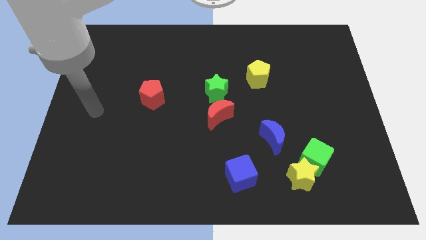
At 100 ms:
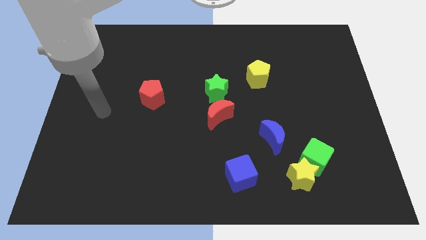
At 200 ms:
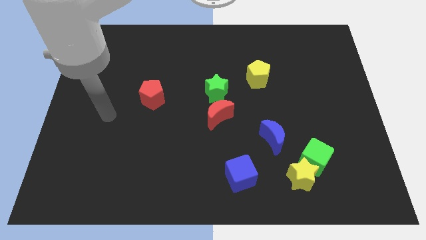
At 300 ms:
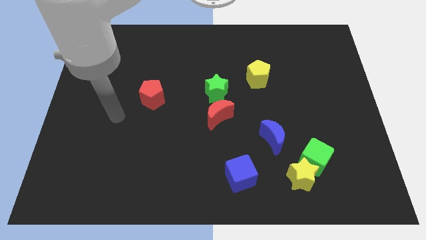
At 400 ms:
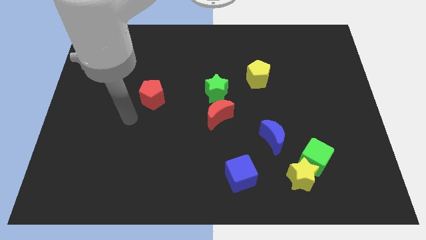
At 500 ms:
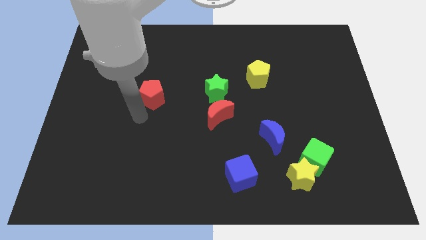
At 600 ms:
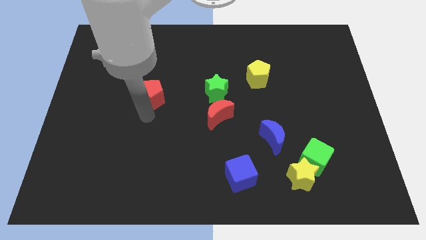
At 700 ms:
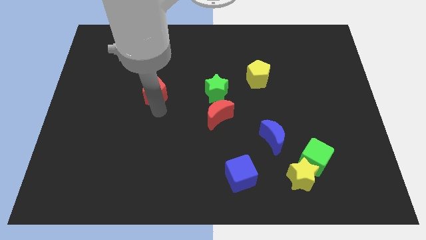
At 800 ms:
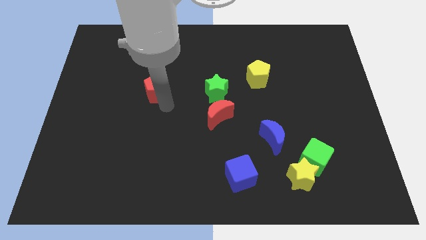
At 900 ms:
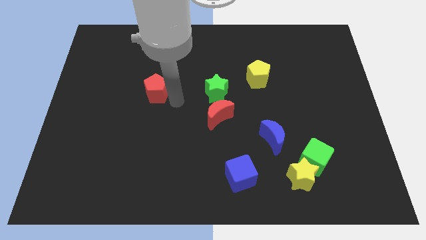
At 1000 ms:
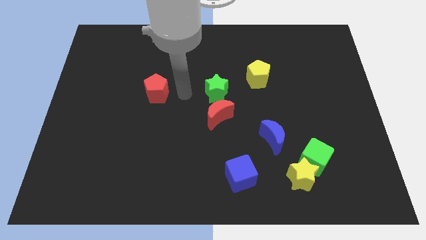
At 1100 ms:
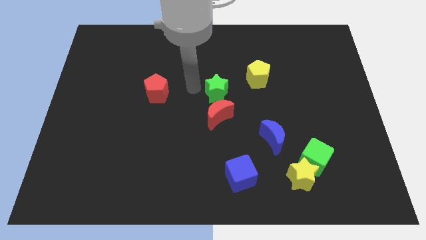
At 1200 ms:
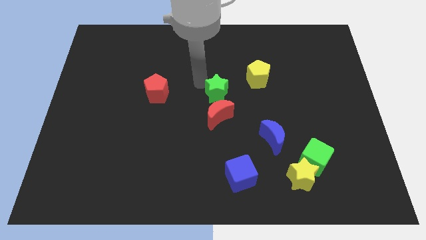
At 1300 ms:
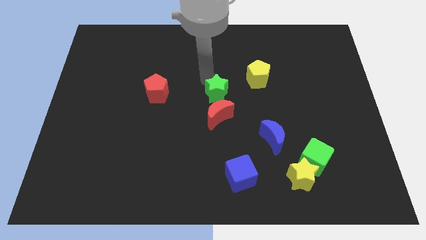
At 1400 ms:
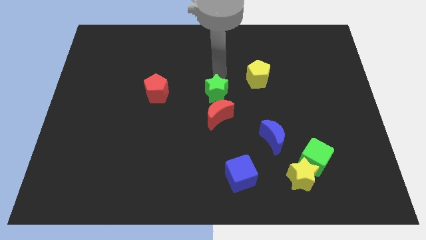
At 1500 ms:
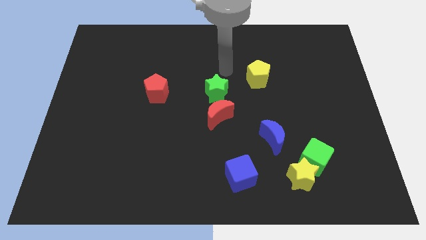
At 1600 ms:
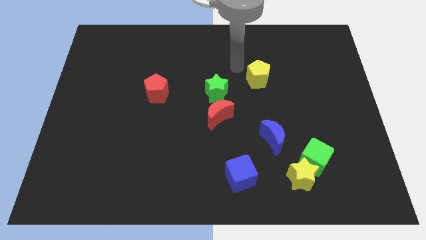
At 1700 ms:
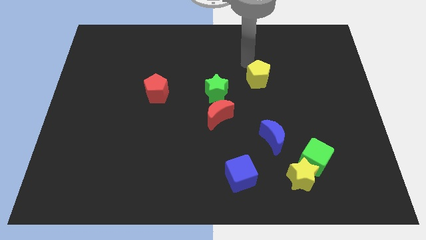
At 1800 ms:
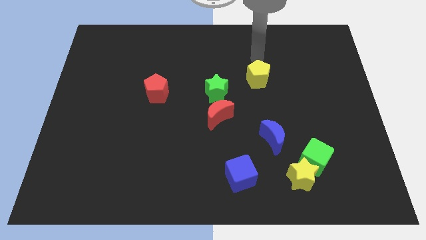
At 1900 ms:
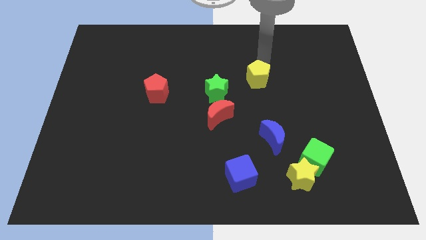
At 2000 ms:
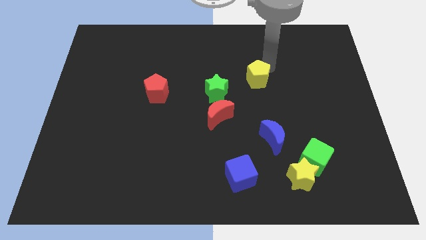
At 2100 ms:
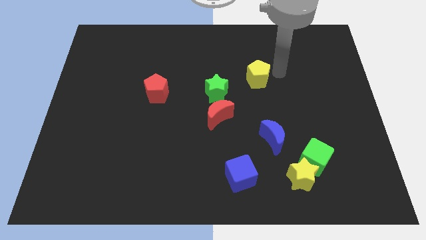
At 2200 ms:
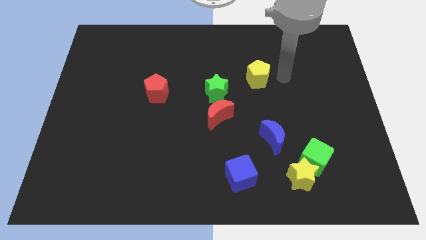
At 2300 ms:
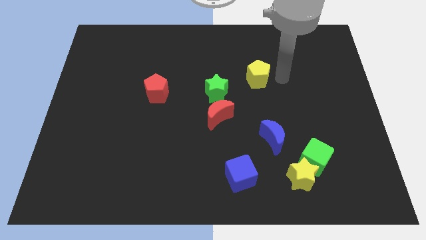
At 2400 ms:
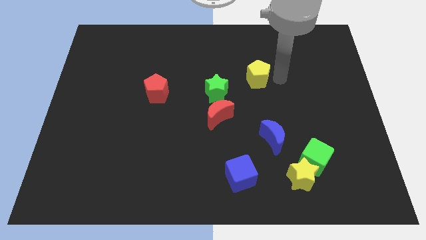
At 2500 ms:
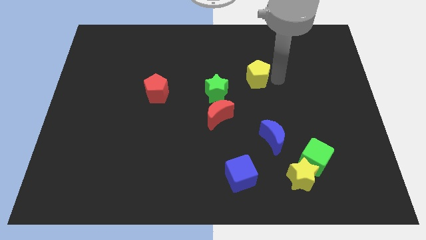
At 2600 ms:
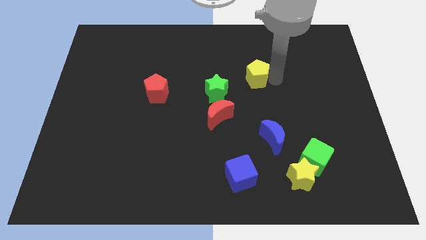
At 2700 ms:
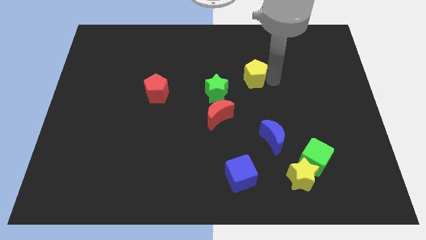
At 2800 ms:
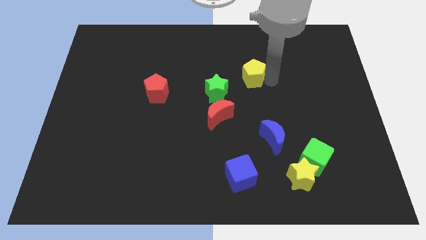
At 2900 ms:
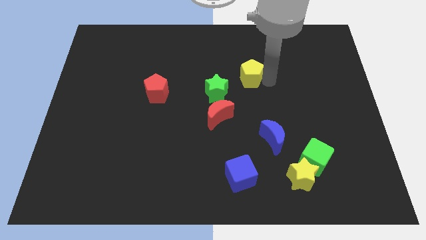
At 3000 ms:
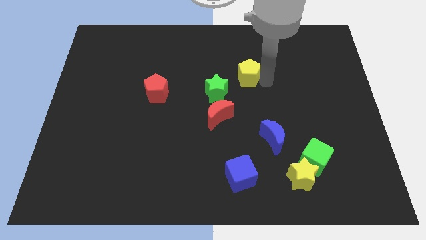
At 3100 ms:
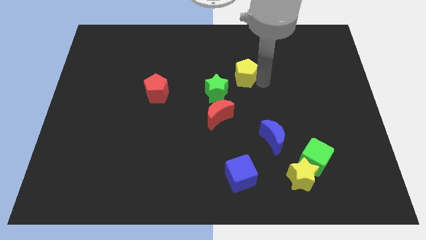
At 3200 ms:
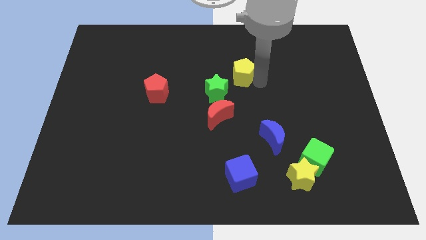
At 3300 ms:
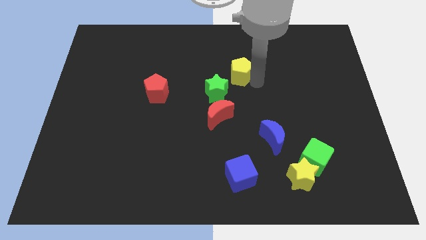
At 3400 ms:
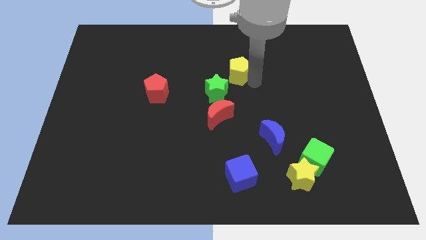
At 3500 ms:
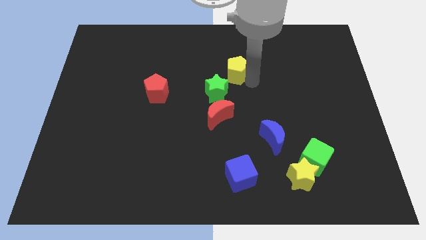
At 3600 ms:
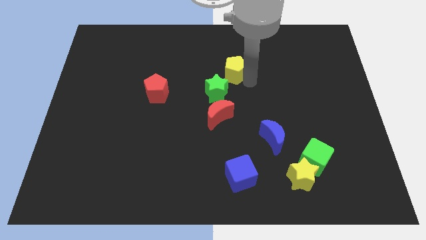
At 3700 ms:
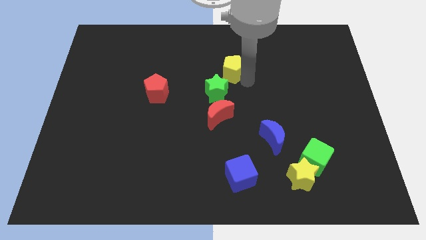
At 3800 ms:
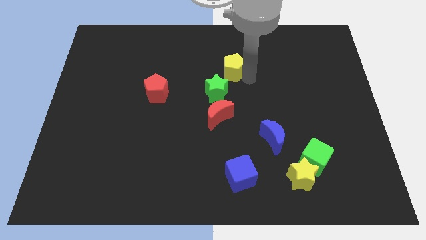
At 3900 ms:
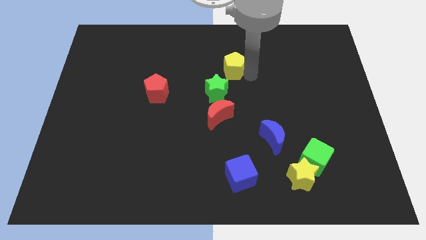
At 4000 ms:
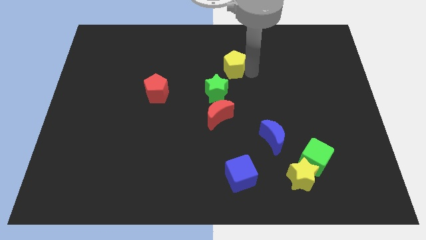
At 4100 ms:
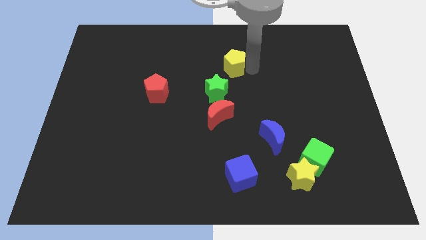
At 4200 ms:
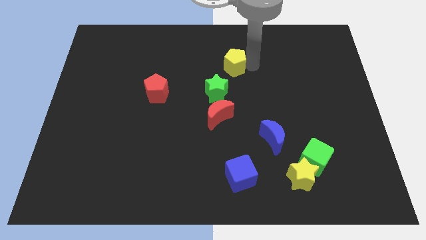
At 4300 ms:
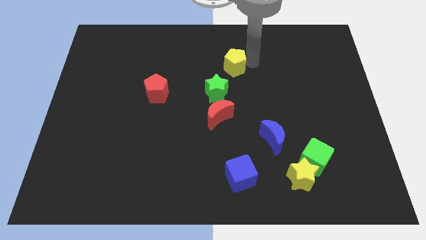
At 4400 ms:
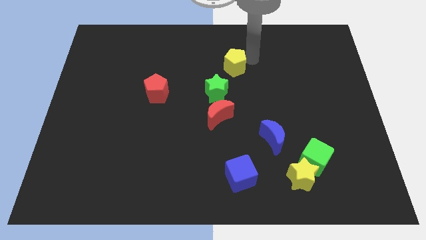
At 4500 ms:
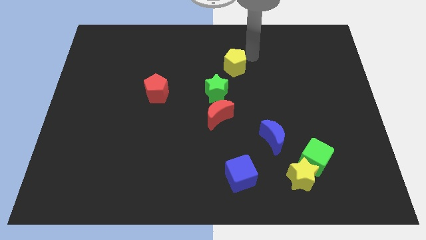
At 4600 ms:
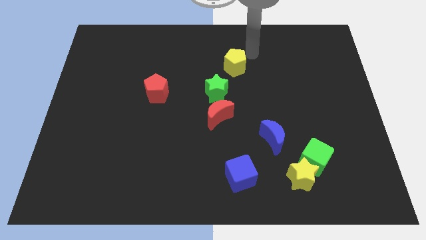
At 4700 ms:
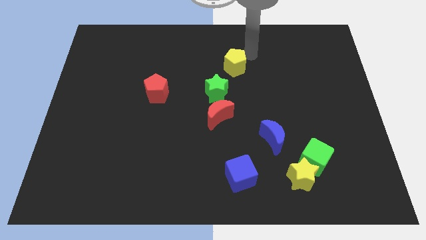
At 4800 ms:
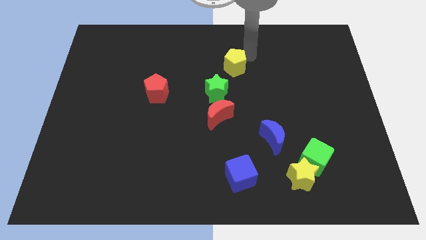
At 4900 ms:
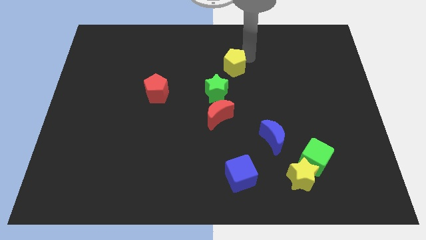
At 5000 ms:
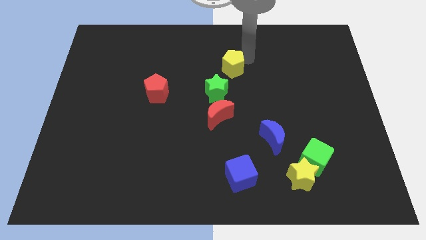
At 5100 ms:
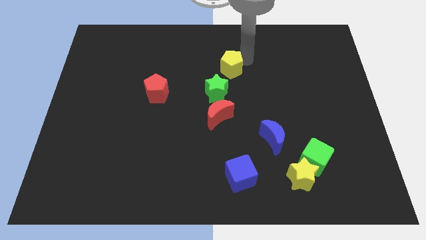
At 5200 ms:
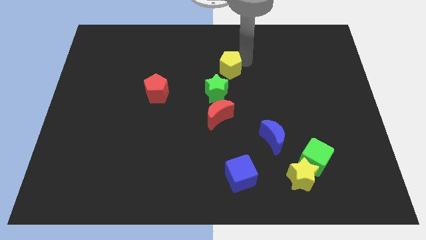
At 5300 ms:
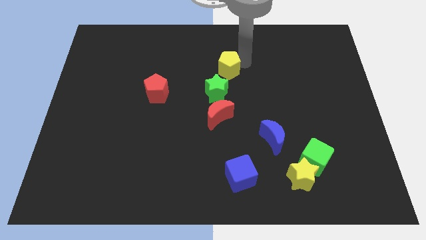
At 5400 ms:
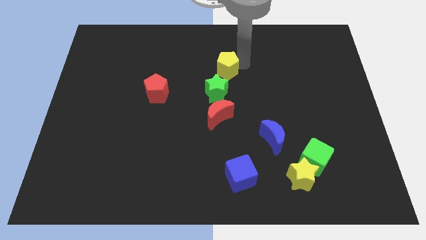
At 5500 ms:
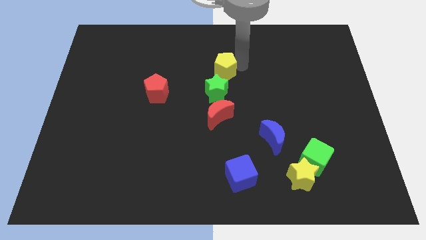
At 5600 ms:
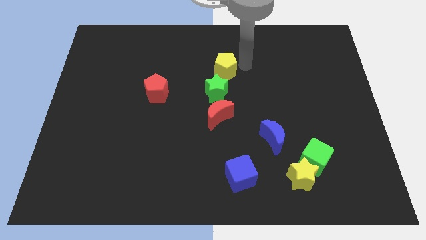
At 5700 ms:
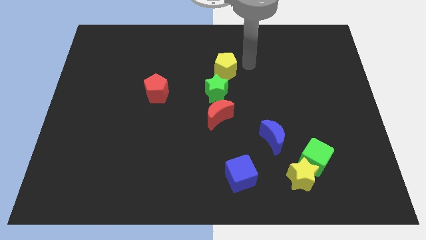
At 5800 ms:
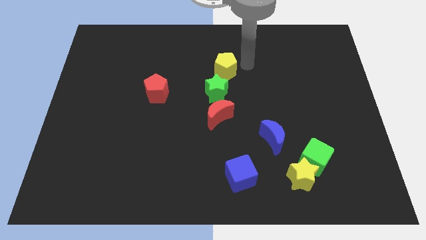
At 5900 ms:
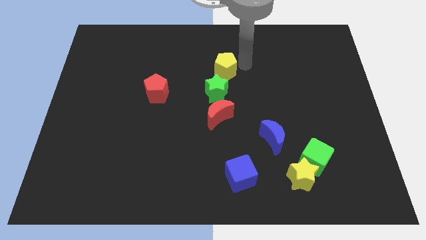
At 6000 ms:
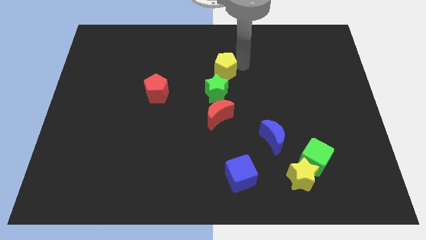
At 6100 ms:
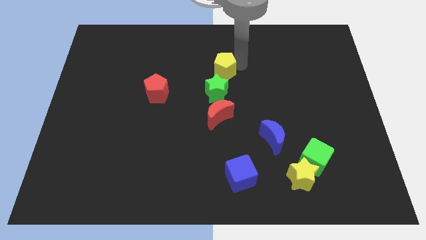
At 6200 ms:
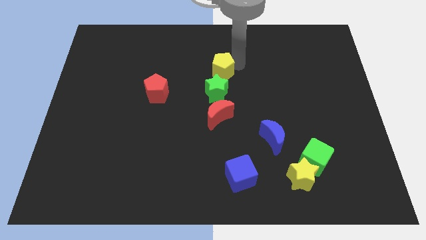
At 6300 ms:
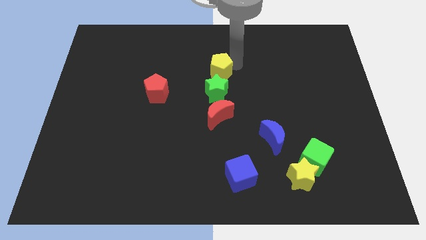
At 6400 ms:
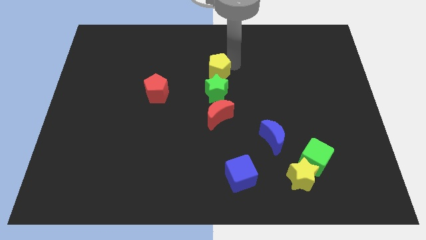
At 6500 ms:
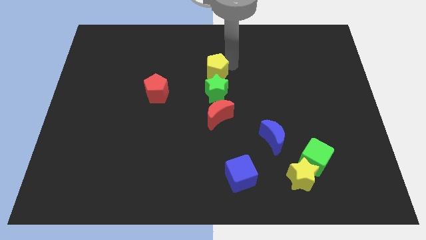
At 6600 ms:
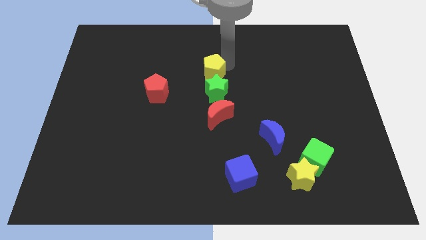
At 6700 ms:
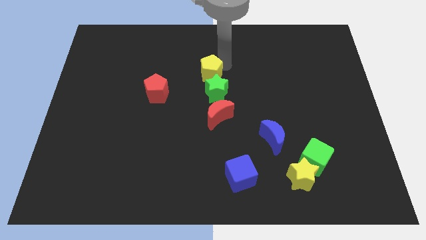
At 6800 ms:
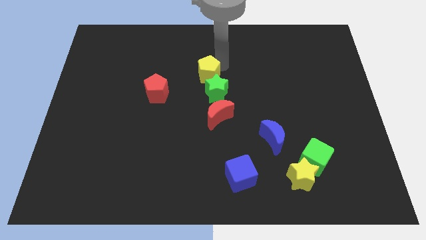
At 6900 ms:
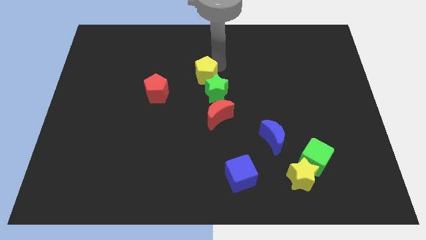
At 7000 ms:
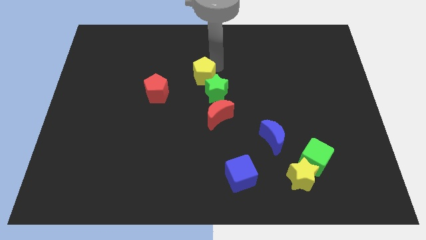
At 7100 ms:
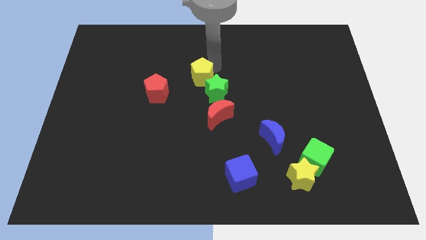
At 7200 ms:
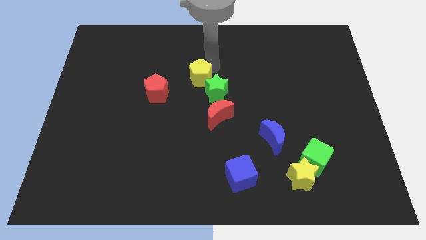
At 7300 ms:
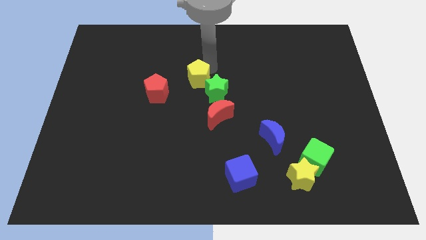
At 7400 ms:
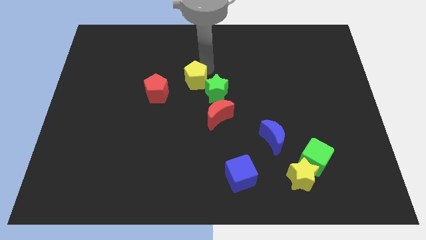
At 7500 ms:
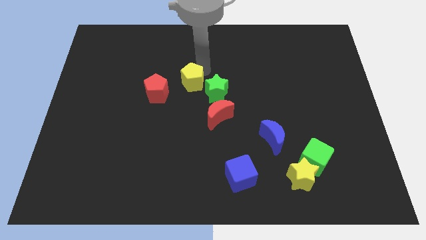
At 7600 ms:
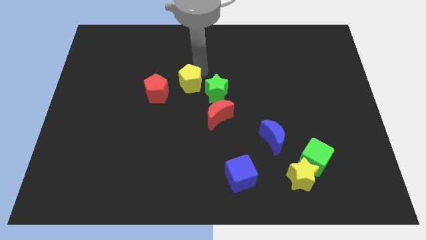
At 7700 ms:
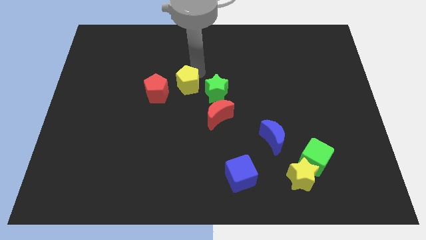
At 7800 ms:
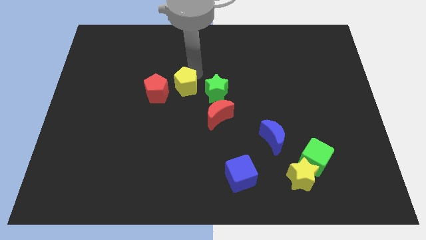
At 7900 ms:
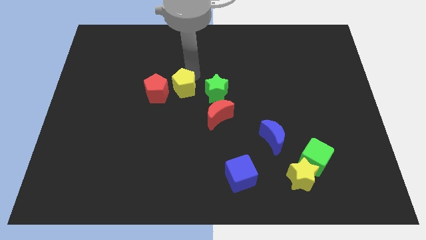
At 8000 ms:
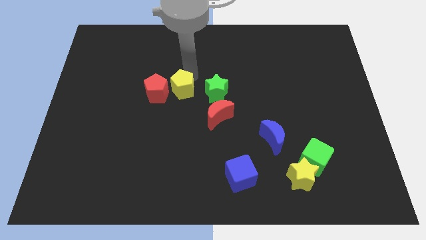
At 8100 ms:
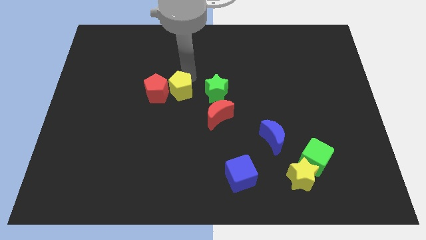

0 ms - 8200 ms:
put the yellow pentagon to the bottom right side of the red pentagon
